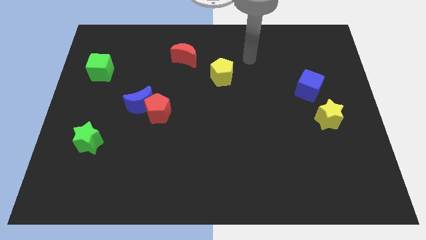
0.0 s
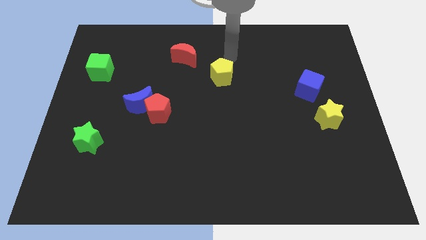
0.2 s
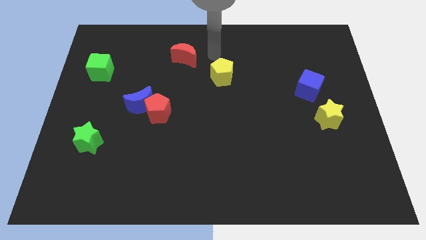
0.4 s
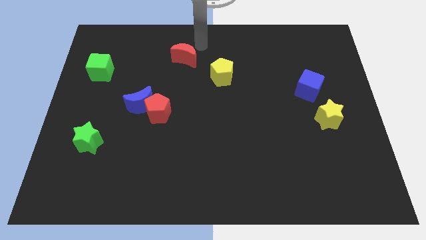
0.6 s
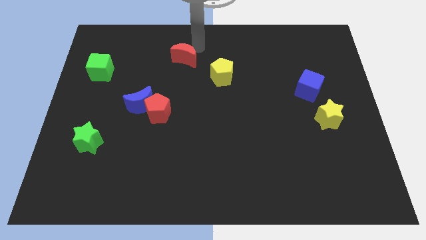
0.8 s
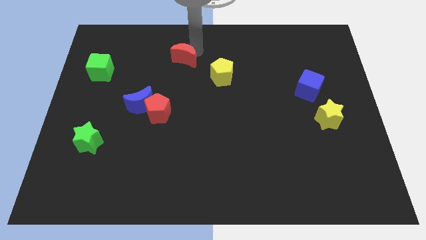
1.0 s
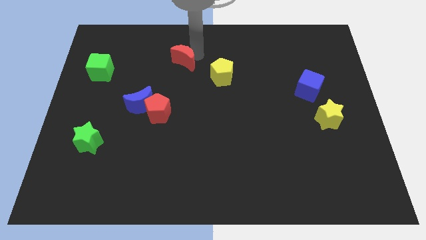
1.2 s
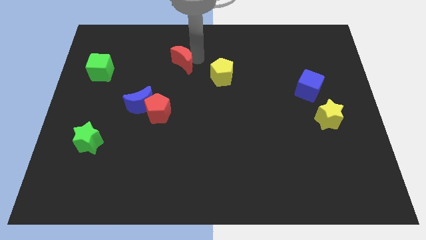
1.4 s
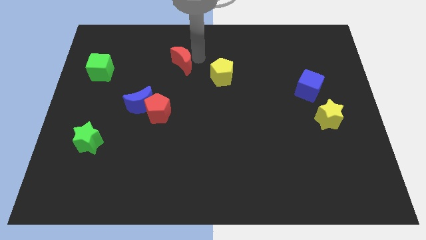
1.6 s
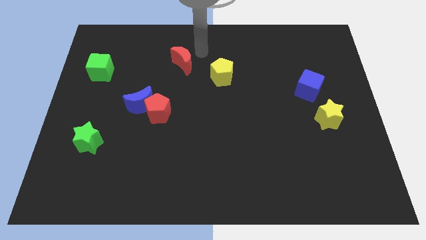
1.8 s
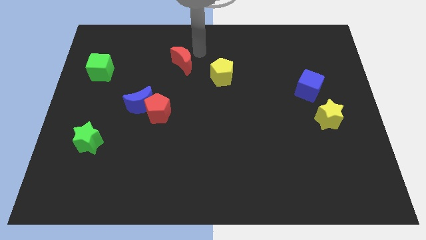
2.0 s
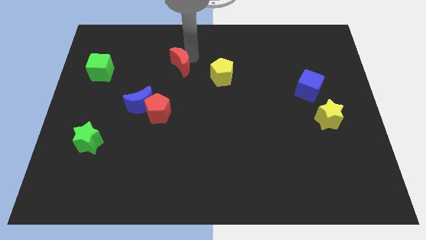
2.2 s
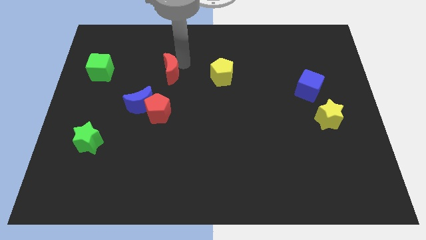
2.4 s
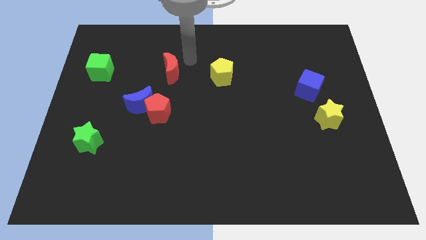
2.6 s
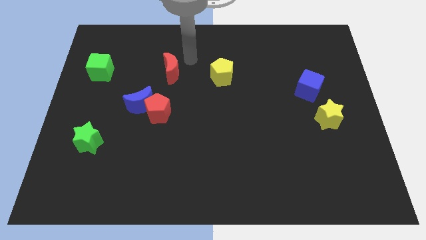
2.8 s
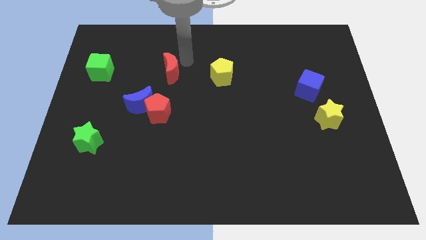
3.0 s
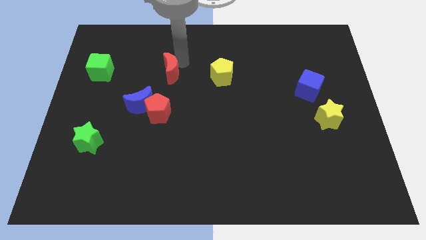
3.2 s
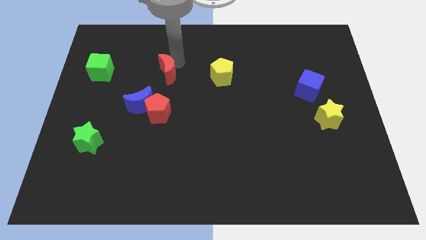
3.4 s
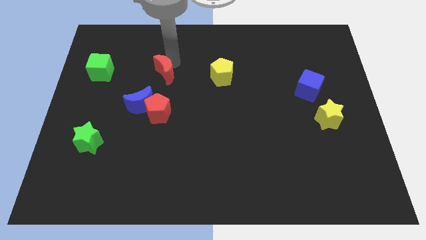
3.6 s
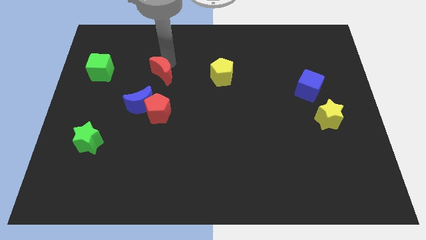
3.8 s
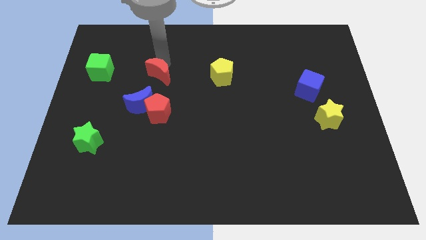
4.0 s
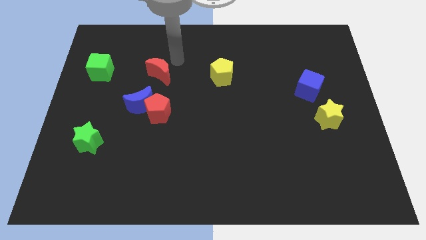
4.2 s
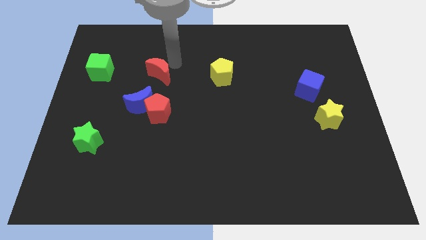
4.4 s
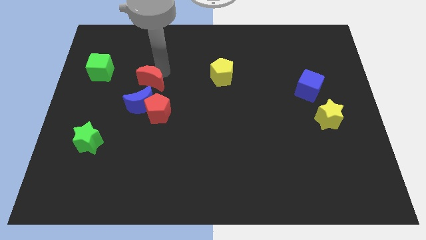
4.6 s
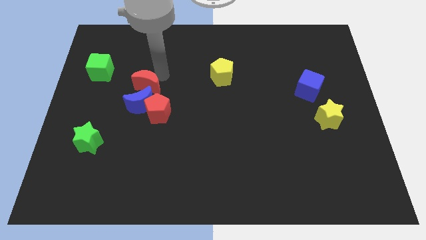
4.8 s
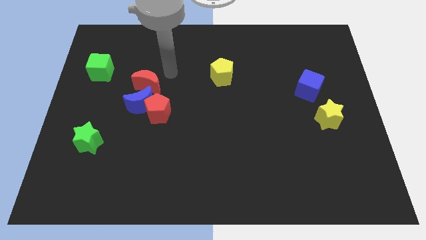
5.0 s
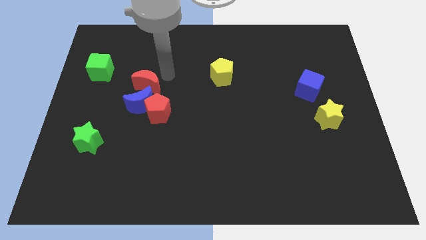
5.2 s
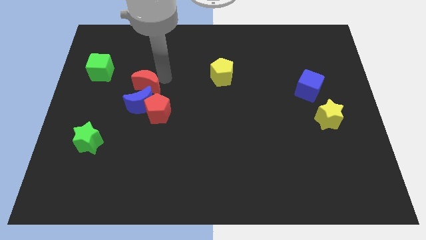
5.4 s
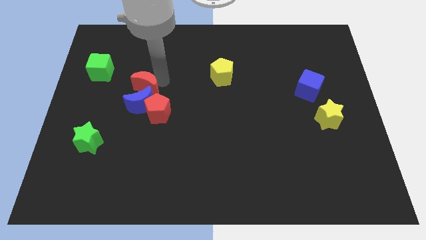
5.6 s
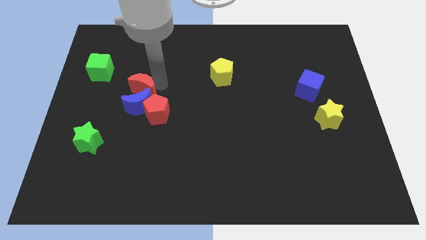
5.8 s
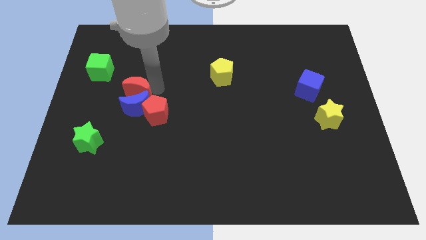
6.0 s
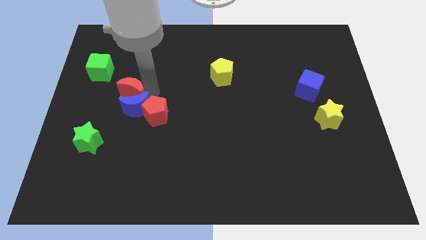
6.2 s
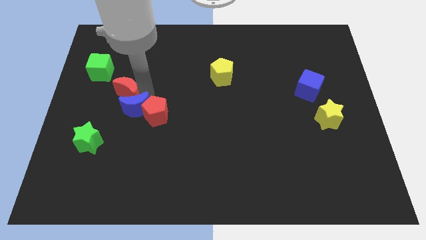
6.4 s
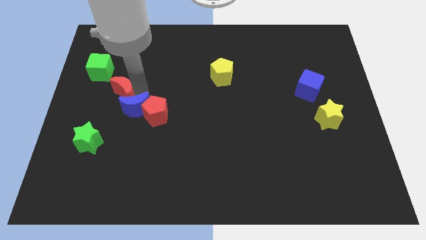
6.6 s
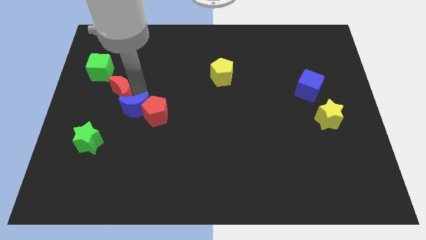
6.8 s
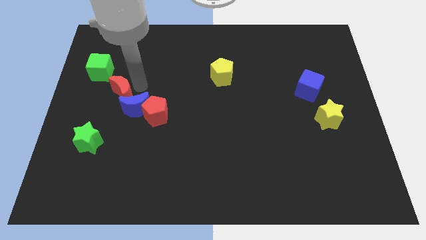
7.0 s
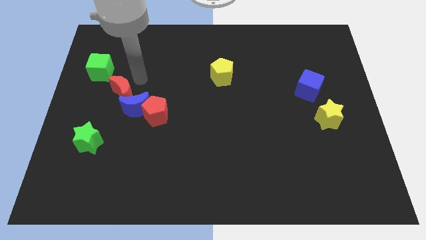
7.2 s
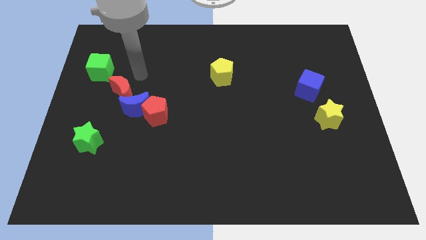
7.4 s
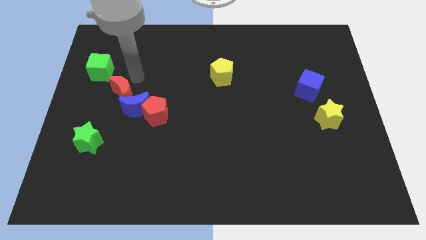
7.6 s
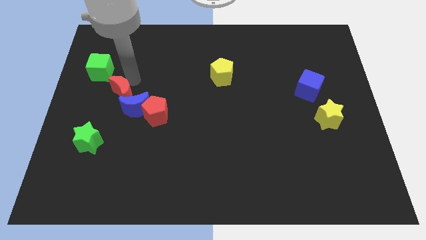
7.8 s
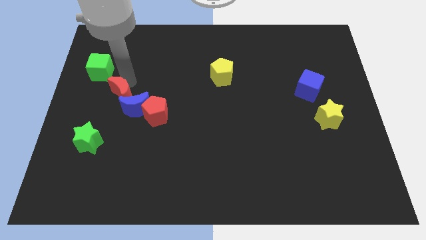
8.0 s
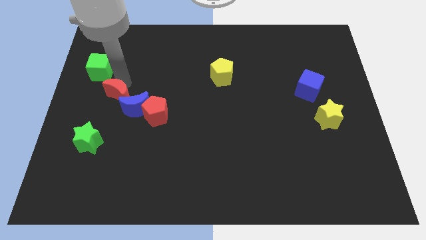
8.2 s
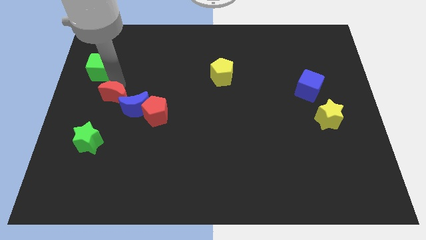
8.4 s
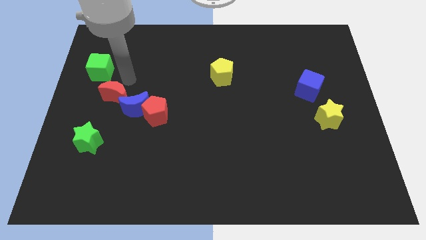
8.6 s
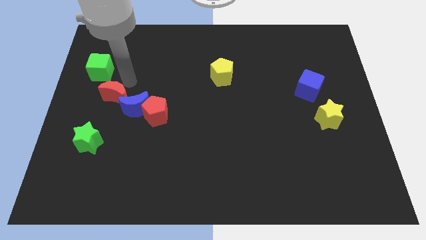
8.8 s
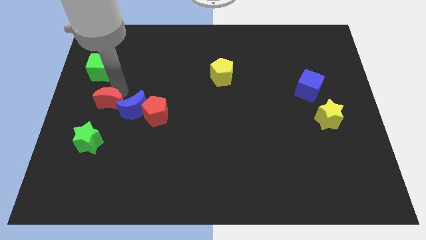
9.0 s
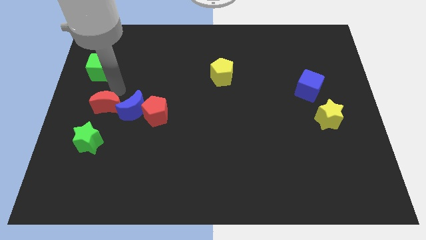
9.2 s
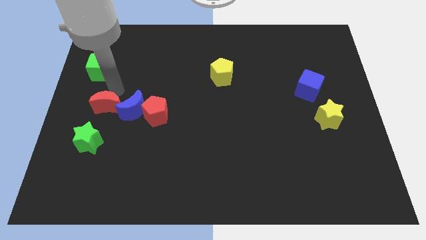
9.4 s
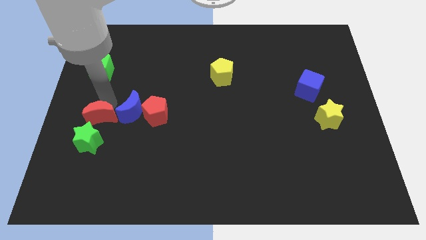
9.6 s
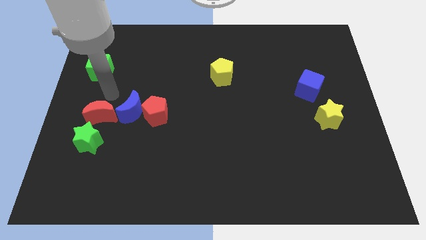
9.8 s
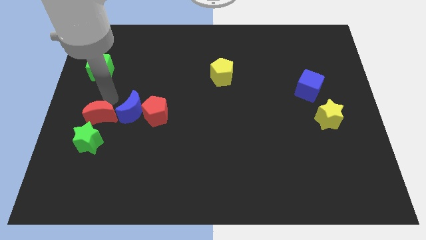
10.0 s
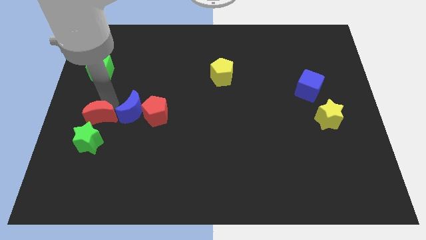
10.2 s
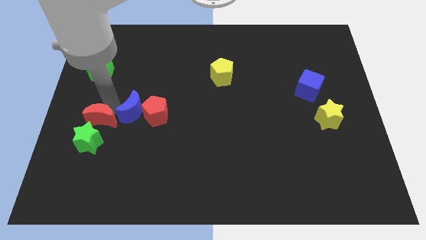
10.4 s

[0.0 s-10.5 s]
slide the red moon close to the green star

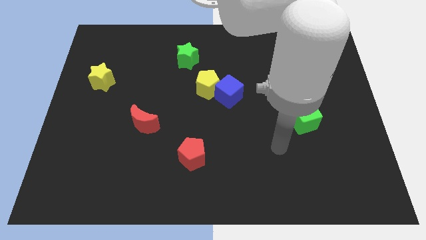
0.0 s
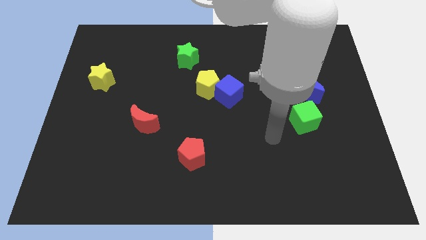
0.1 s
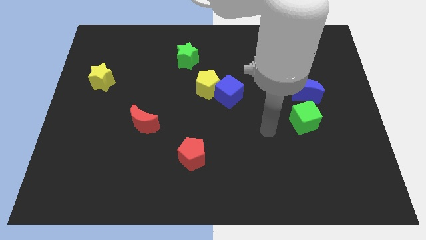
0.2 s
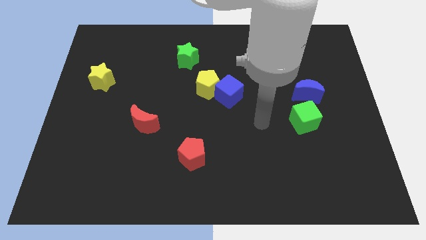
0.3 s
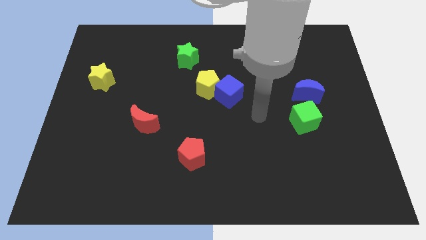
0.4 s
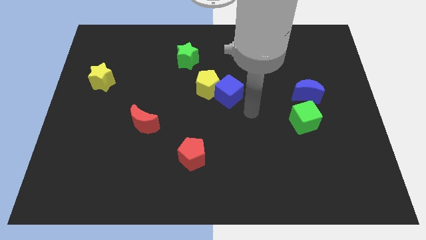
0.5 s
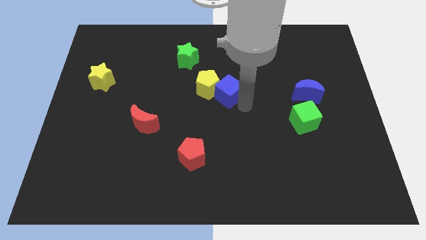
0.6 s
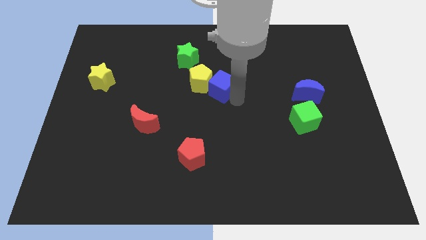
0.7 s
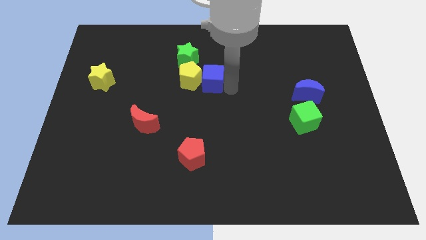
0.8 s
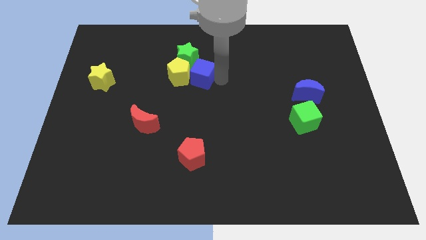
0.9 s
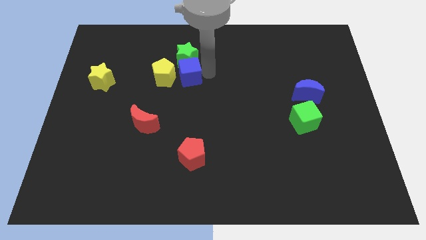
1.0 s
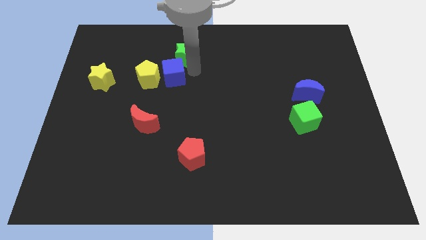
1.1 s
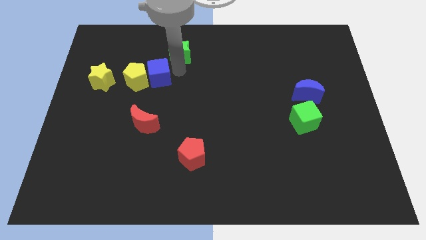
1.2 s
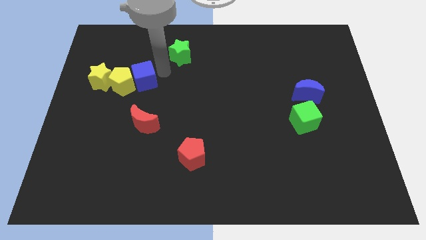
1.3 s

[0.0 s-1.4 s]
move the yellow pentagon close to the yellow star

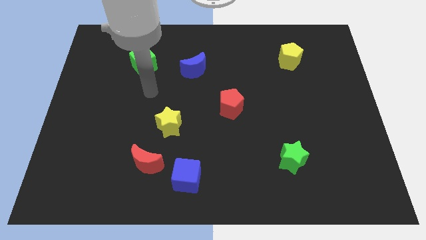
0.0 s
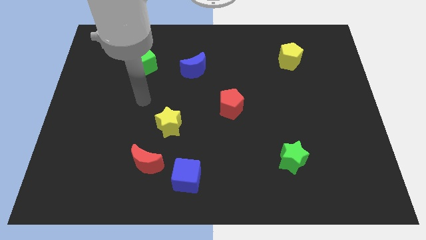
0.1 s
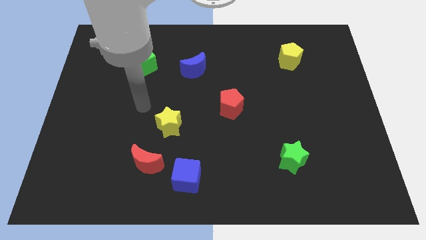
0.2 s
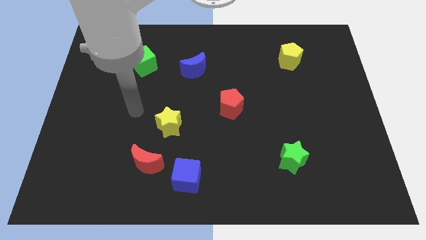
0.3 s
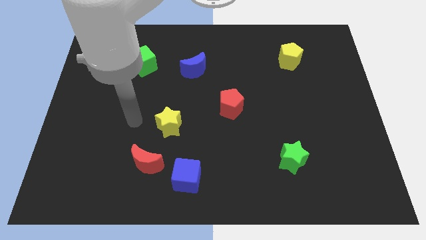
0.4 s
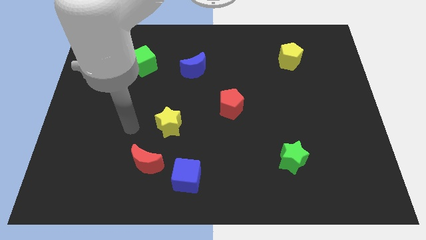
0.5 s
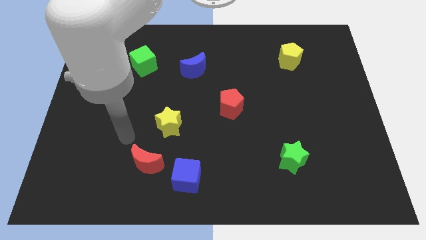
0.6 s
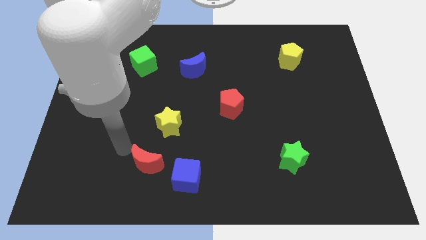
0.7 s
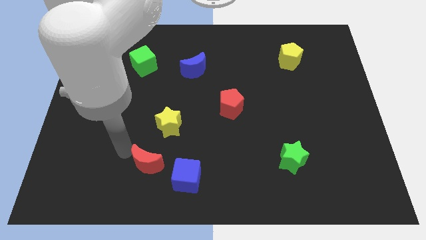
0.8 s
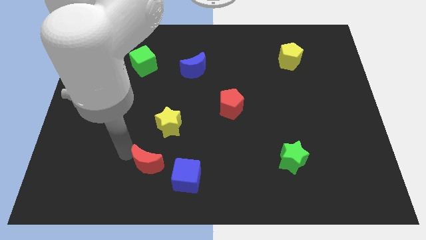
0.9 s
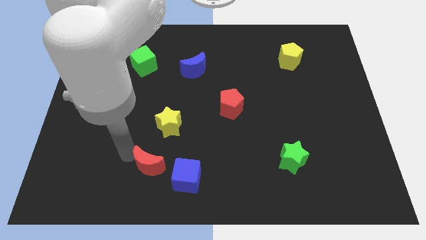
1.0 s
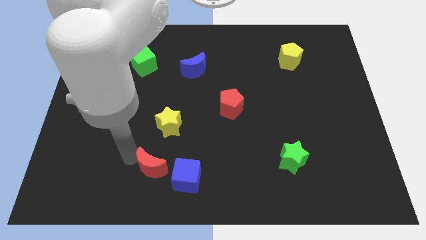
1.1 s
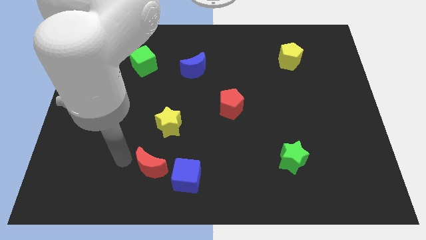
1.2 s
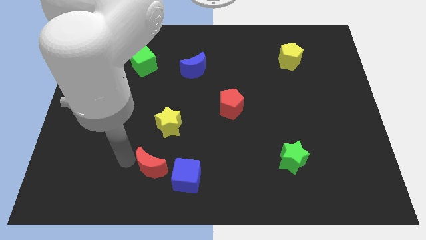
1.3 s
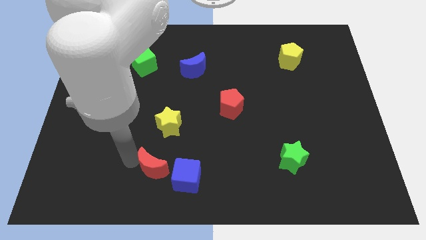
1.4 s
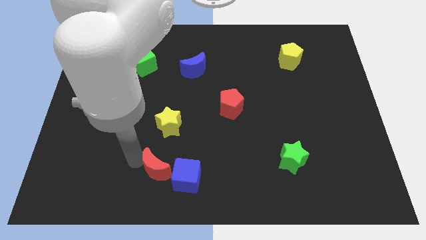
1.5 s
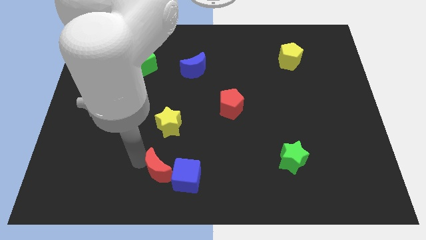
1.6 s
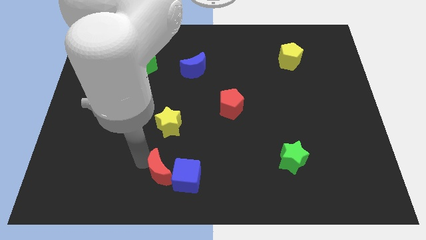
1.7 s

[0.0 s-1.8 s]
move the red moon towards the blue cube
